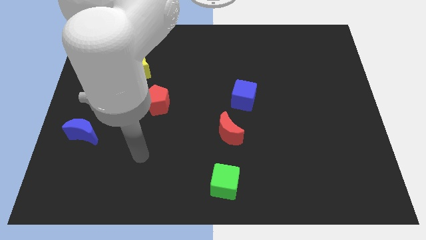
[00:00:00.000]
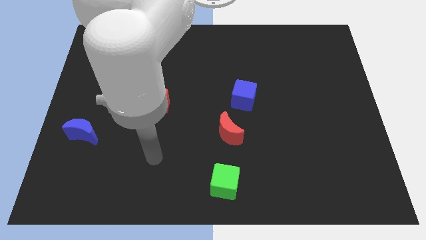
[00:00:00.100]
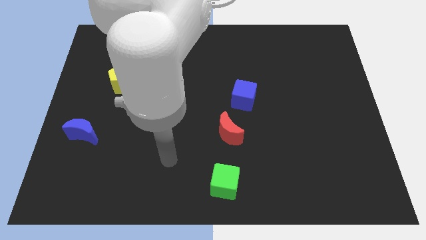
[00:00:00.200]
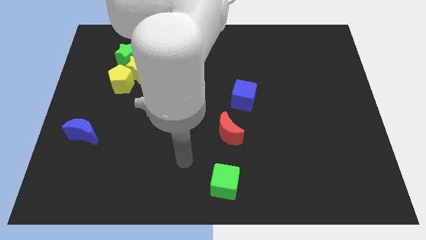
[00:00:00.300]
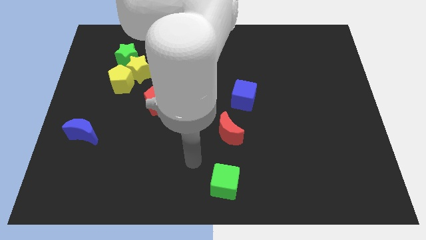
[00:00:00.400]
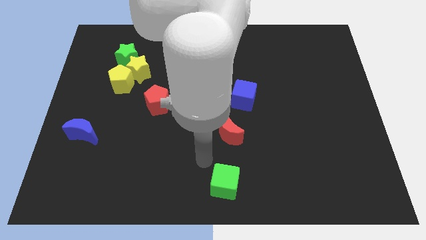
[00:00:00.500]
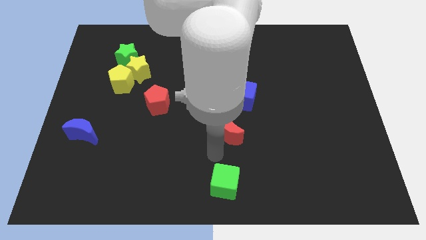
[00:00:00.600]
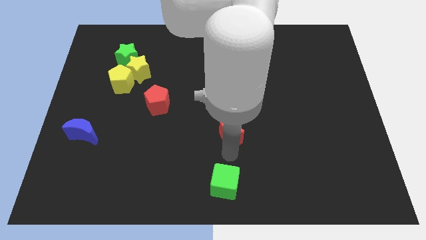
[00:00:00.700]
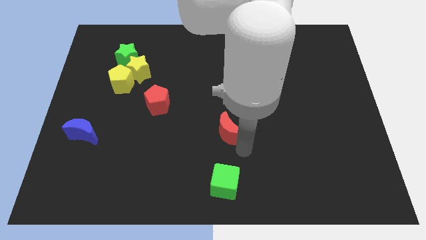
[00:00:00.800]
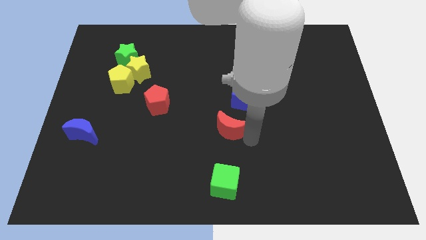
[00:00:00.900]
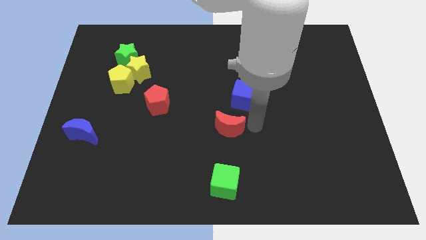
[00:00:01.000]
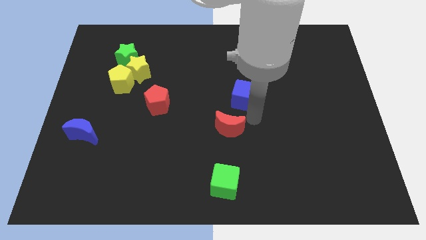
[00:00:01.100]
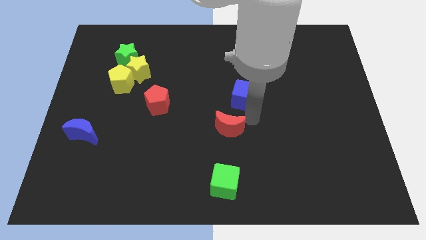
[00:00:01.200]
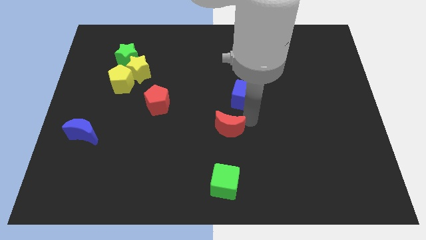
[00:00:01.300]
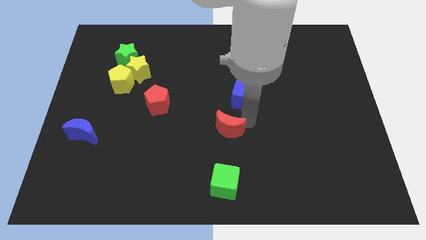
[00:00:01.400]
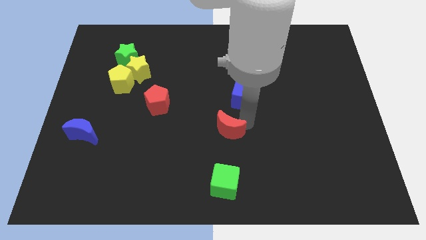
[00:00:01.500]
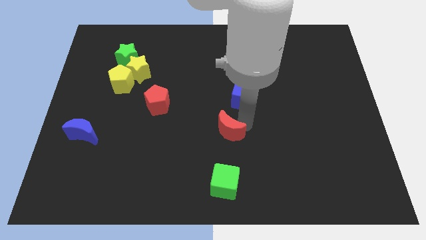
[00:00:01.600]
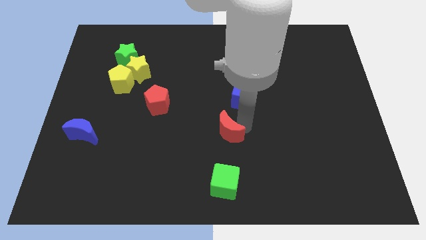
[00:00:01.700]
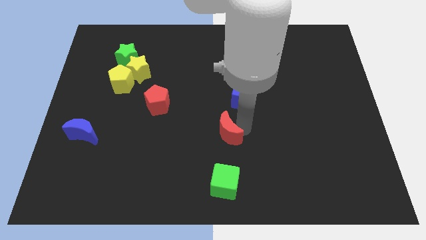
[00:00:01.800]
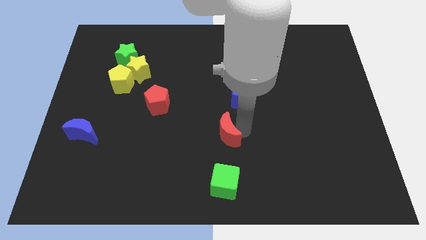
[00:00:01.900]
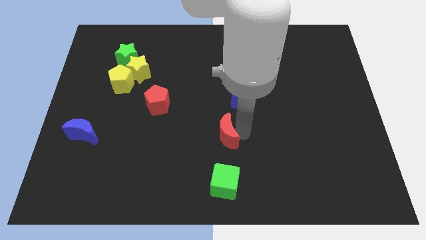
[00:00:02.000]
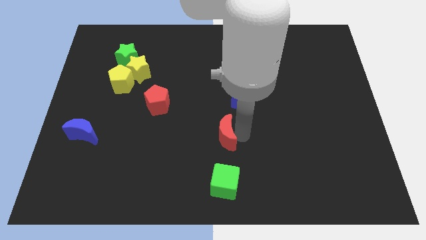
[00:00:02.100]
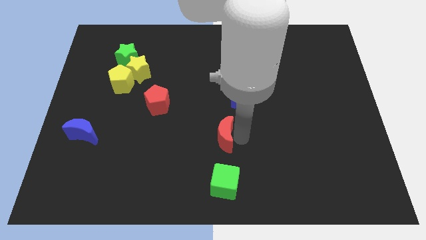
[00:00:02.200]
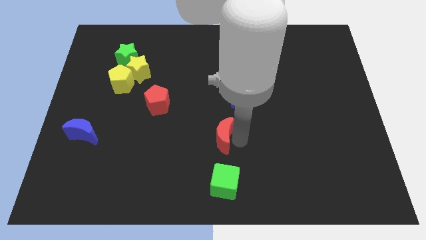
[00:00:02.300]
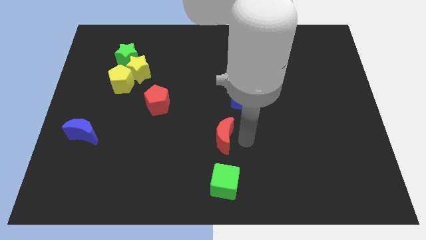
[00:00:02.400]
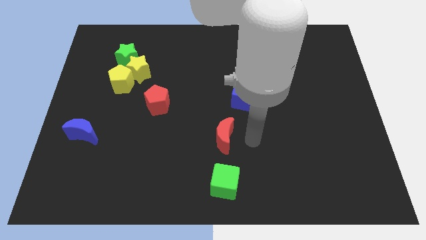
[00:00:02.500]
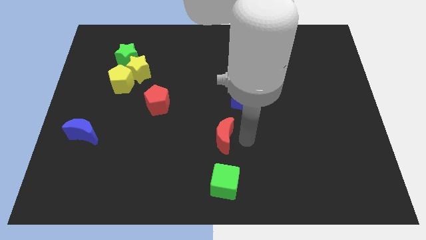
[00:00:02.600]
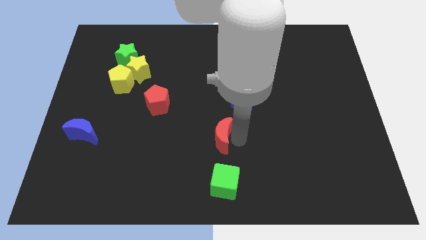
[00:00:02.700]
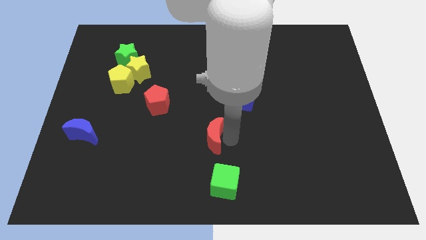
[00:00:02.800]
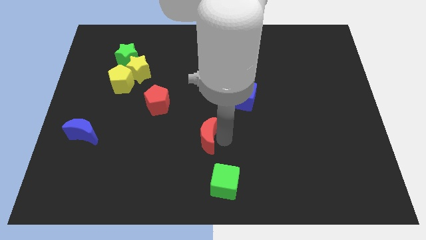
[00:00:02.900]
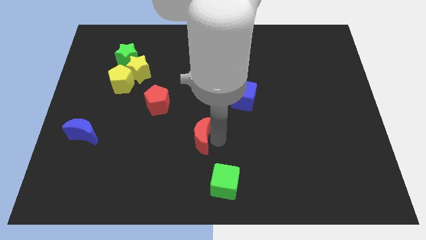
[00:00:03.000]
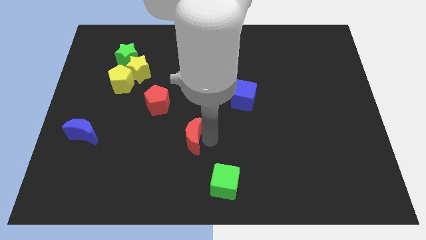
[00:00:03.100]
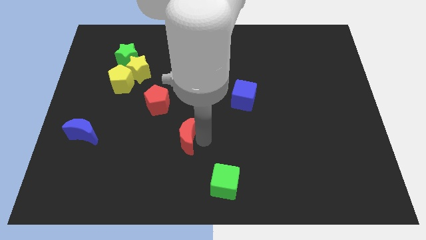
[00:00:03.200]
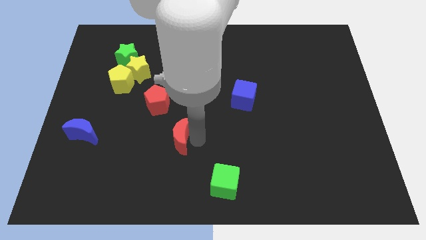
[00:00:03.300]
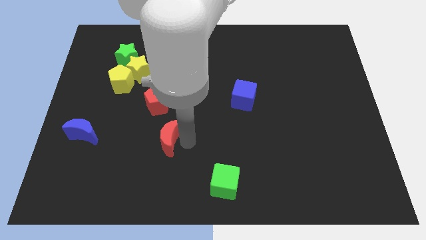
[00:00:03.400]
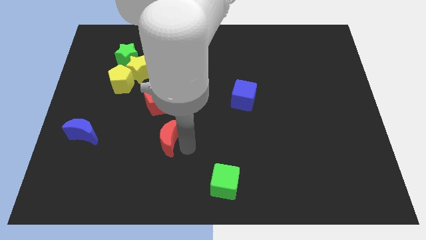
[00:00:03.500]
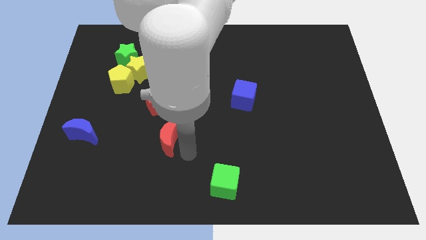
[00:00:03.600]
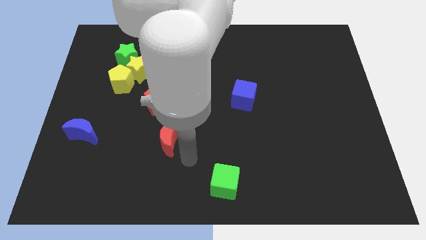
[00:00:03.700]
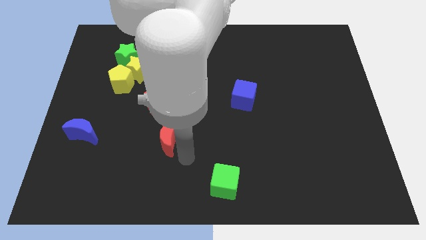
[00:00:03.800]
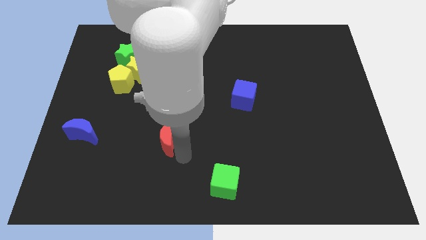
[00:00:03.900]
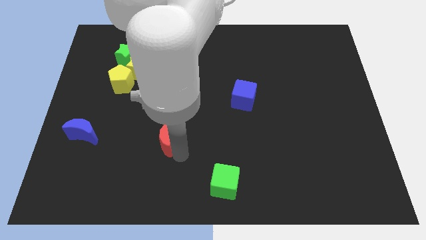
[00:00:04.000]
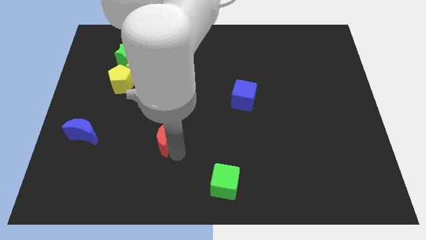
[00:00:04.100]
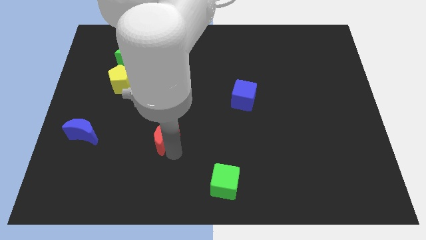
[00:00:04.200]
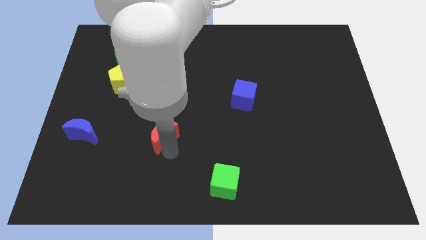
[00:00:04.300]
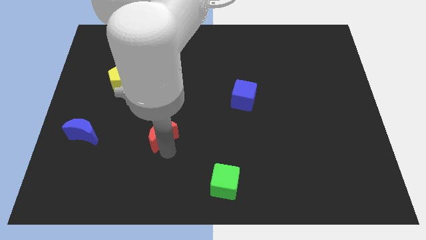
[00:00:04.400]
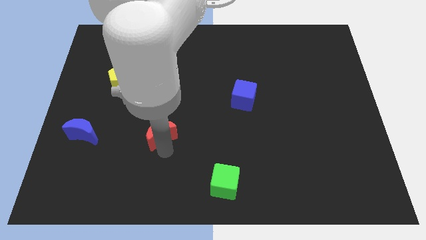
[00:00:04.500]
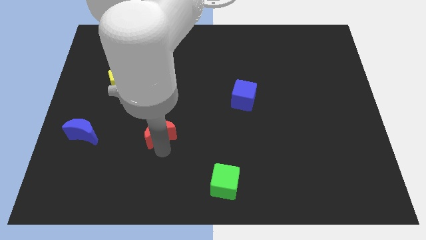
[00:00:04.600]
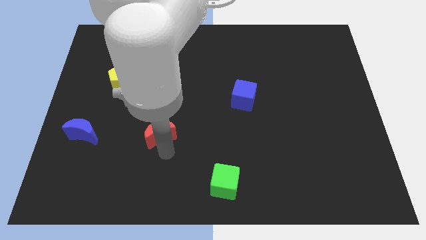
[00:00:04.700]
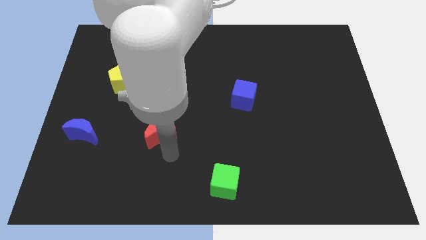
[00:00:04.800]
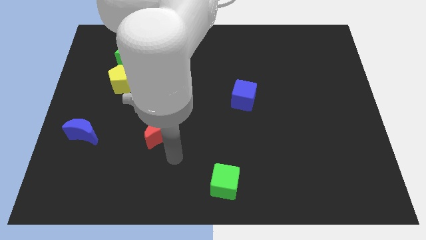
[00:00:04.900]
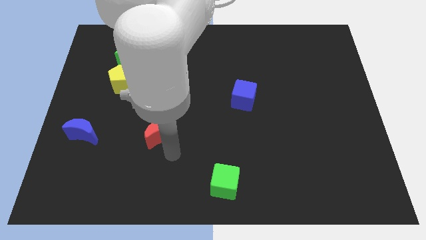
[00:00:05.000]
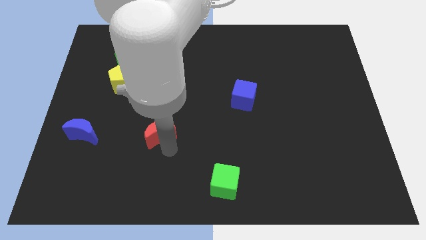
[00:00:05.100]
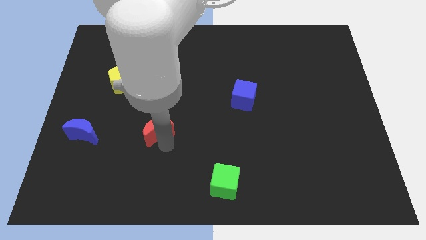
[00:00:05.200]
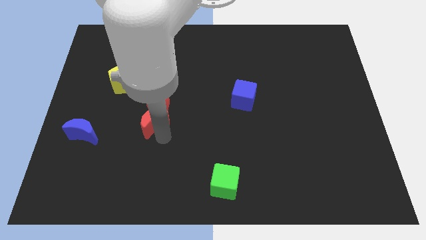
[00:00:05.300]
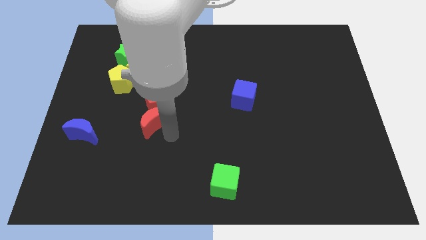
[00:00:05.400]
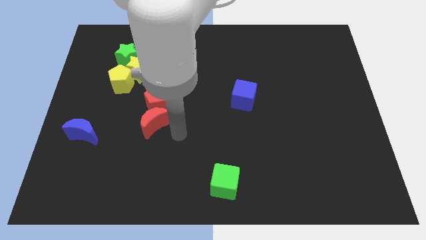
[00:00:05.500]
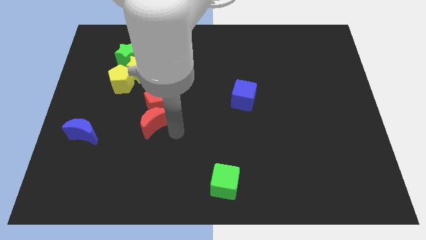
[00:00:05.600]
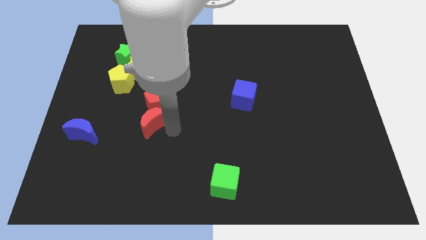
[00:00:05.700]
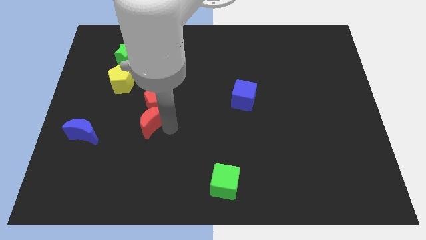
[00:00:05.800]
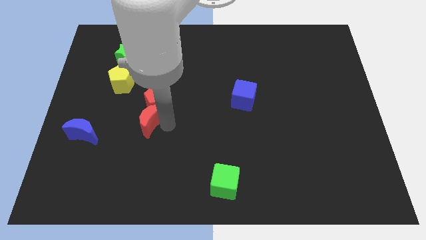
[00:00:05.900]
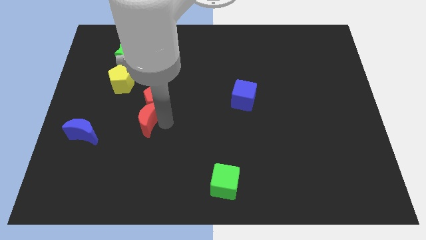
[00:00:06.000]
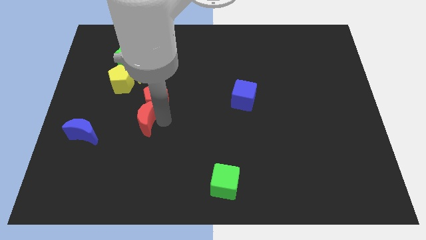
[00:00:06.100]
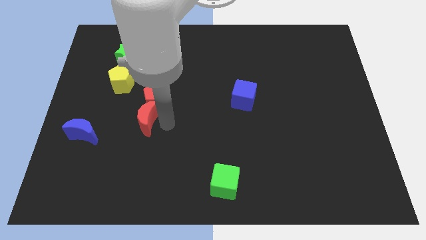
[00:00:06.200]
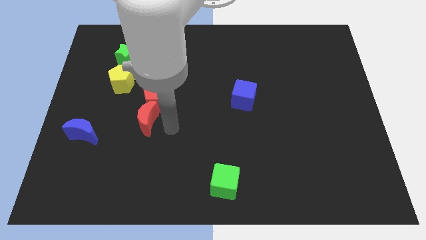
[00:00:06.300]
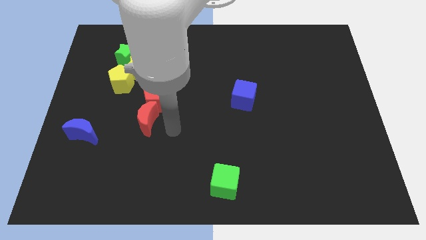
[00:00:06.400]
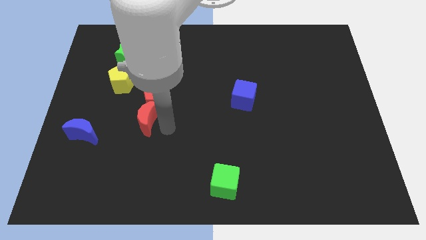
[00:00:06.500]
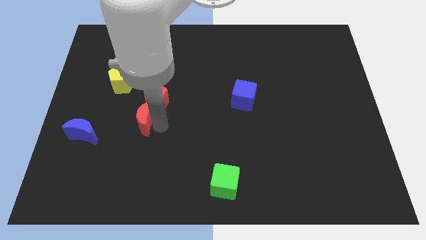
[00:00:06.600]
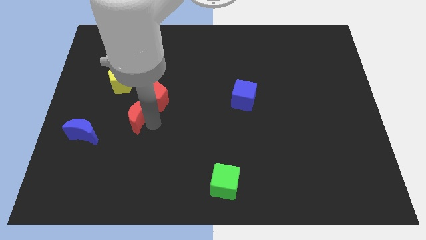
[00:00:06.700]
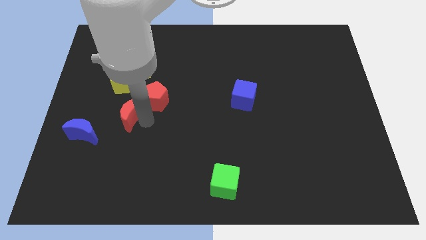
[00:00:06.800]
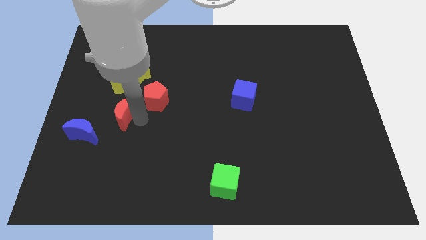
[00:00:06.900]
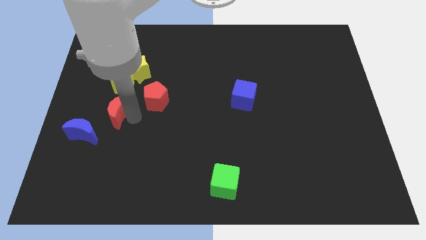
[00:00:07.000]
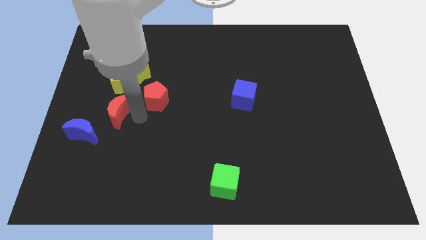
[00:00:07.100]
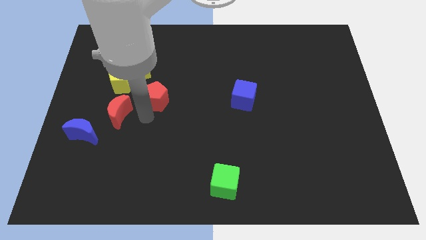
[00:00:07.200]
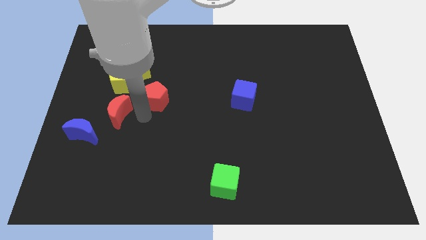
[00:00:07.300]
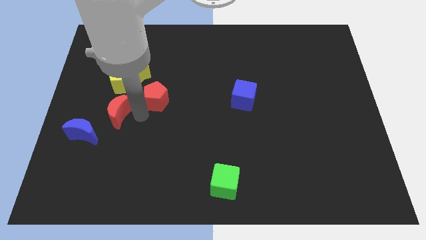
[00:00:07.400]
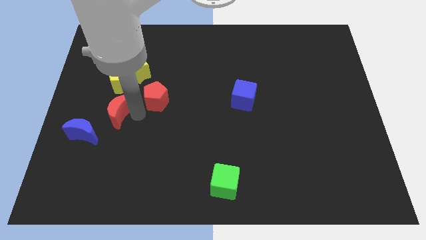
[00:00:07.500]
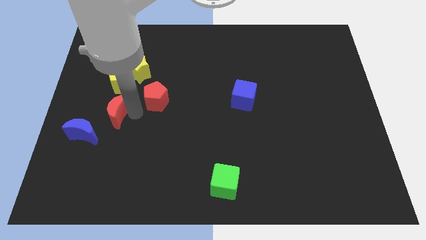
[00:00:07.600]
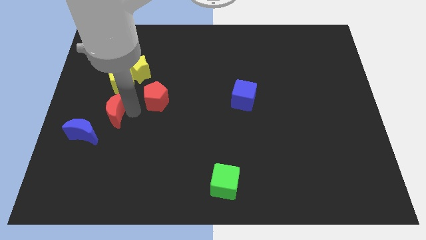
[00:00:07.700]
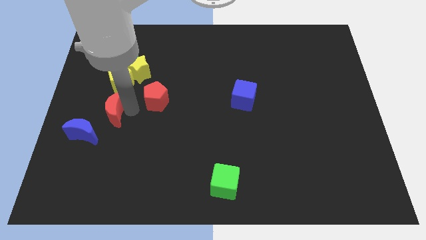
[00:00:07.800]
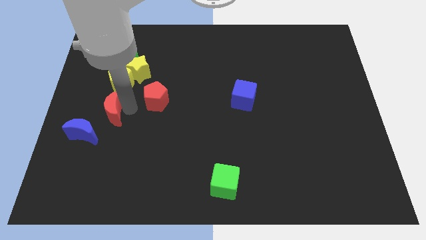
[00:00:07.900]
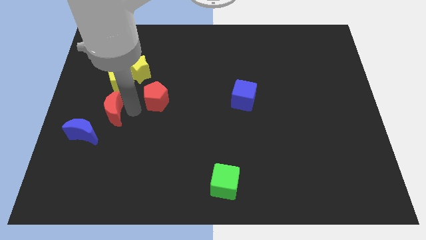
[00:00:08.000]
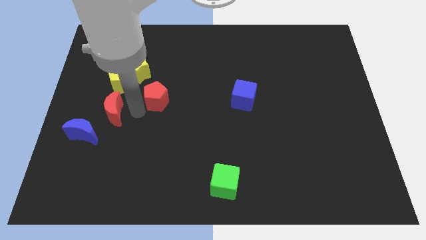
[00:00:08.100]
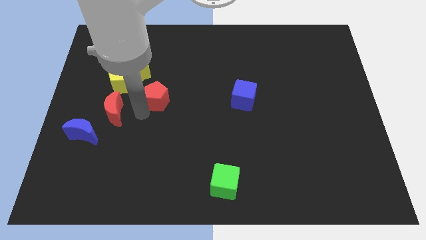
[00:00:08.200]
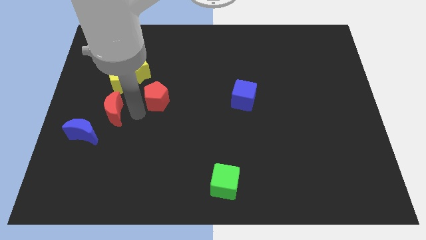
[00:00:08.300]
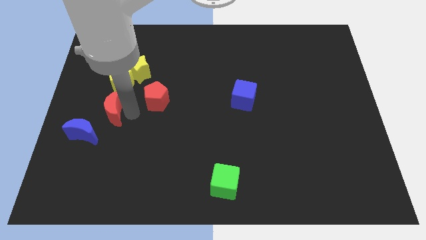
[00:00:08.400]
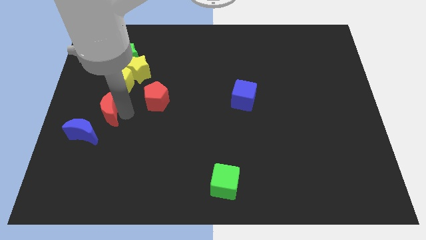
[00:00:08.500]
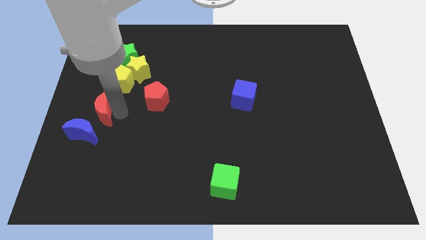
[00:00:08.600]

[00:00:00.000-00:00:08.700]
push the red moon to the left side
